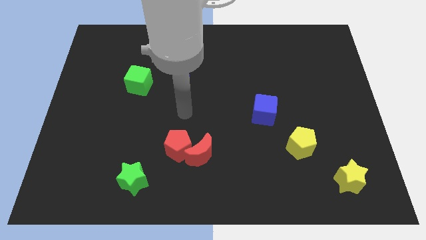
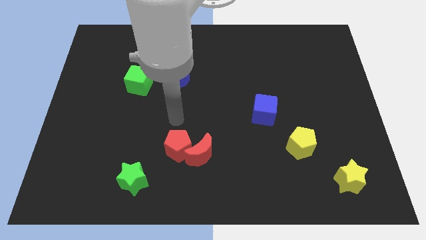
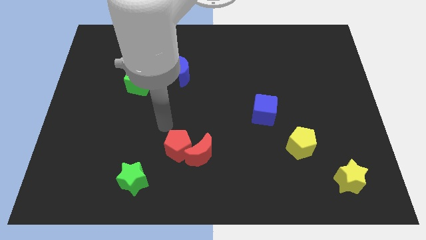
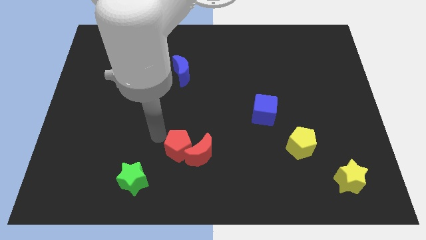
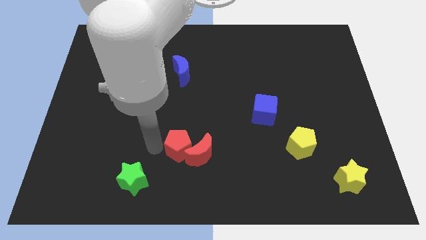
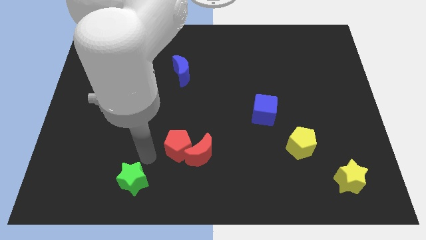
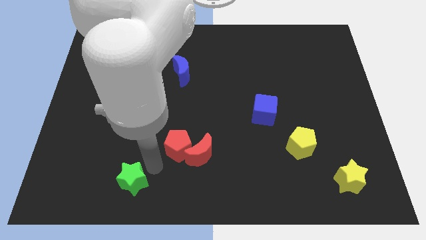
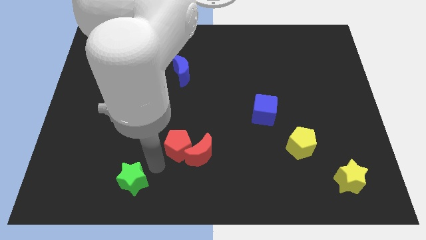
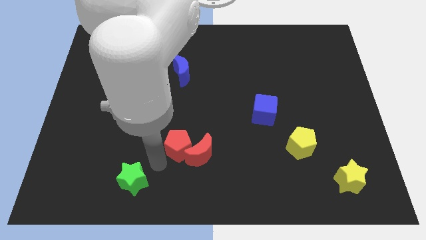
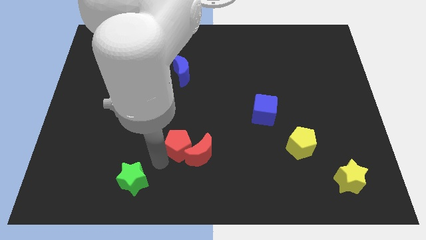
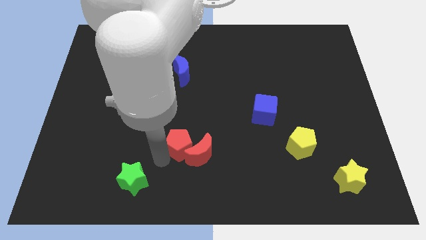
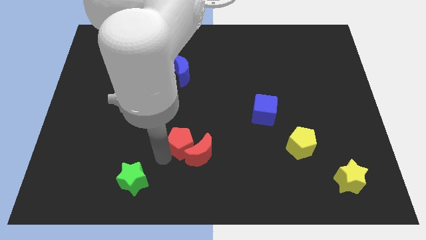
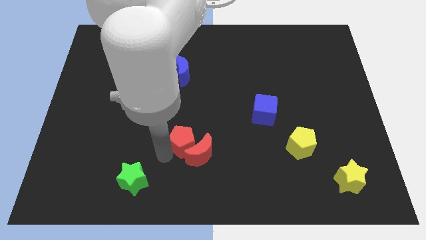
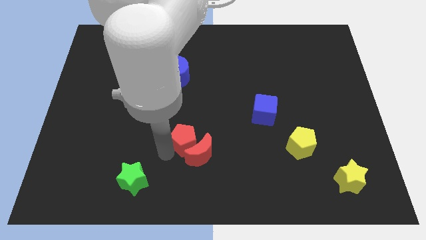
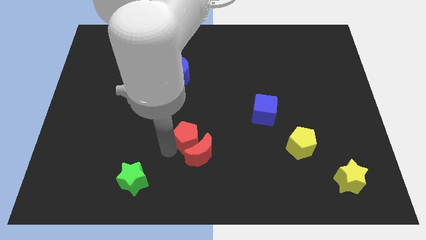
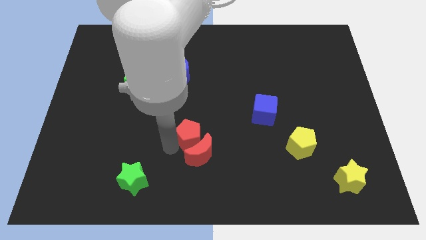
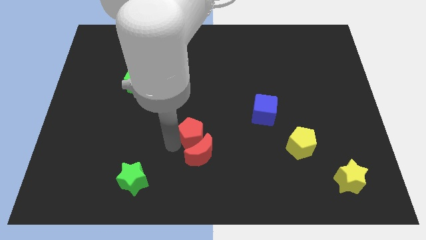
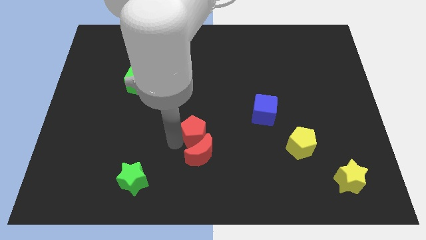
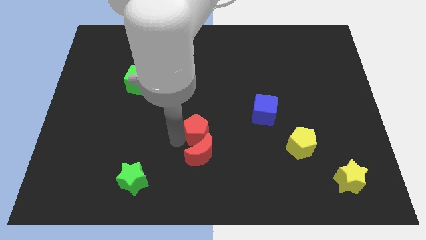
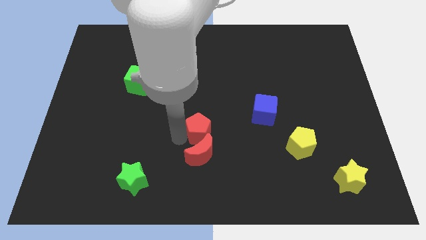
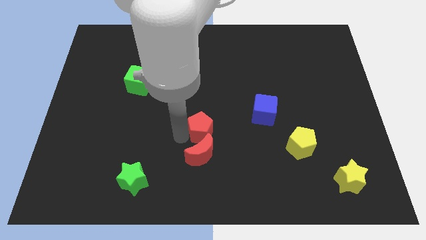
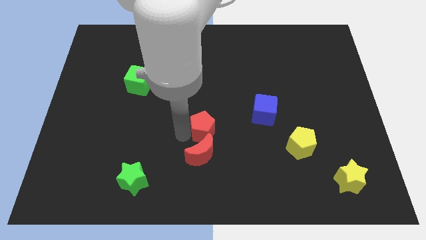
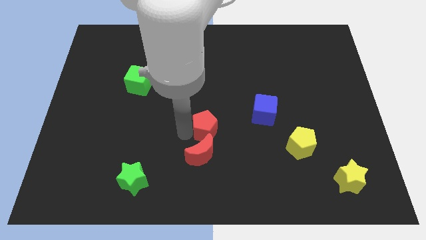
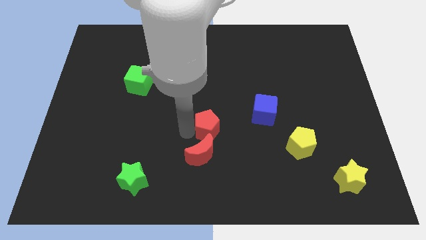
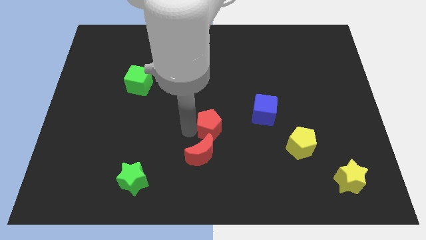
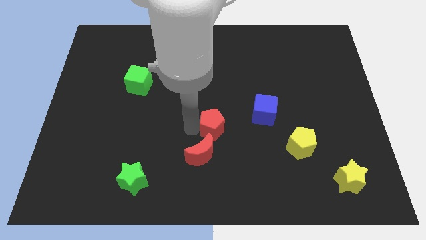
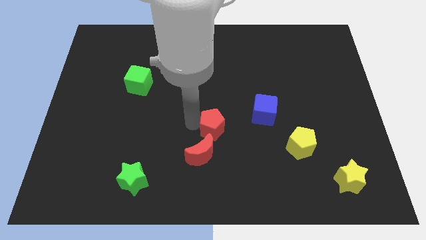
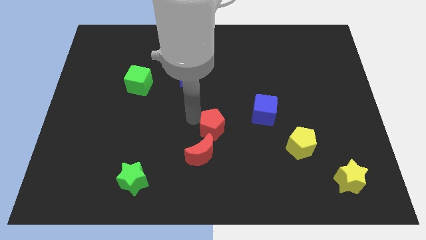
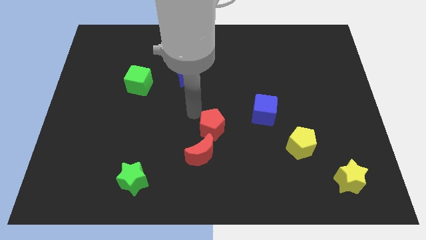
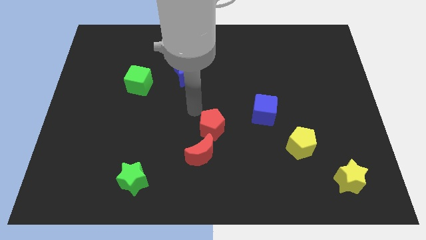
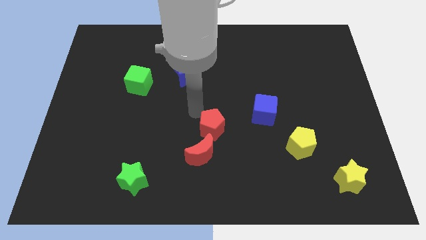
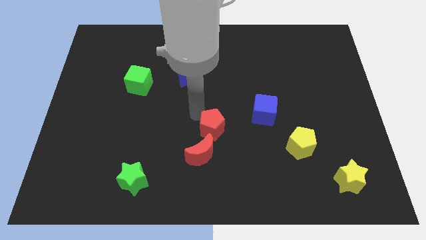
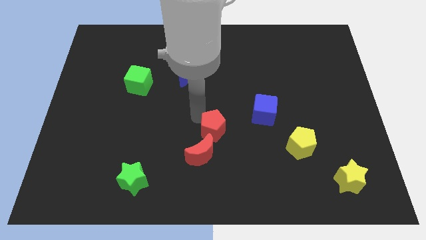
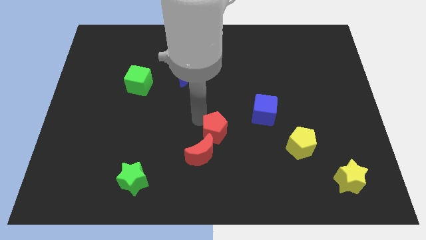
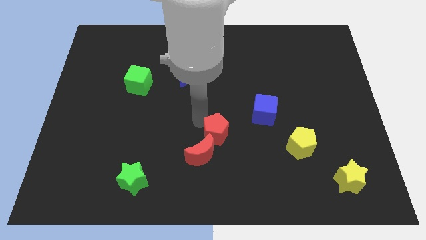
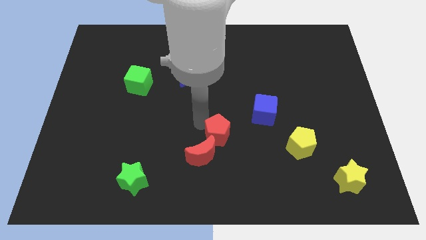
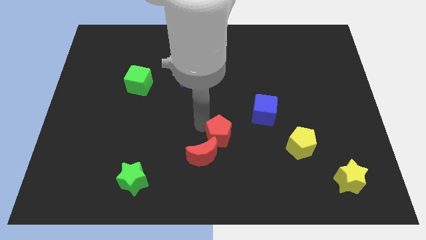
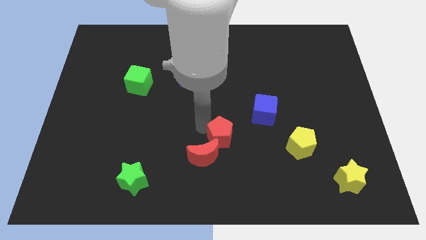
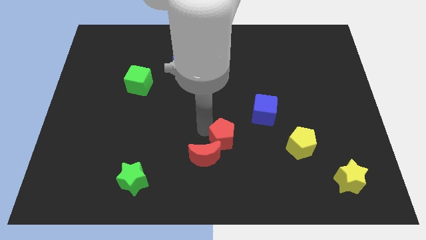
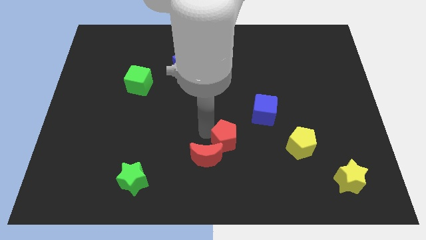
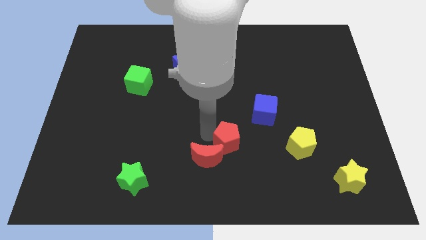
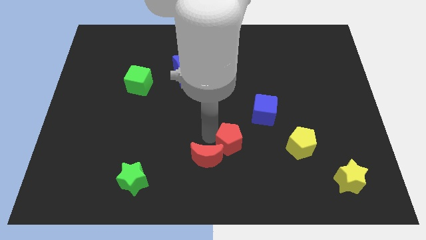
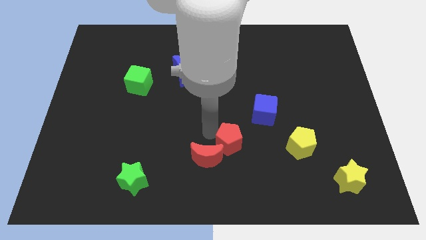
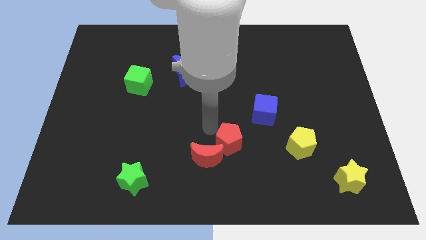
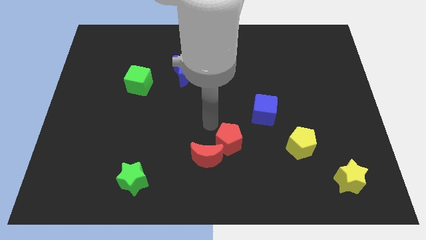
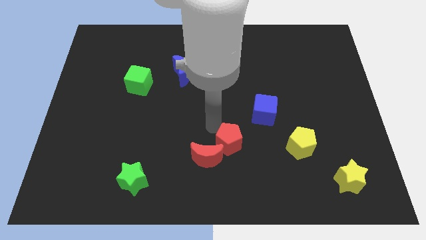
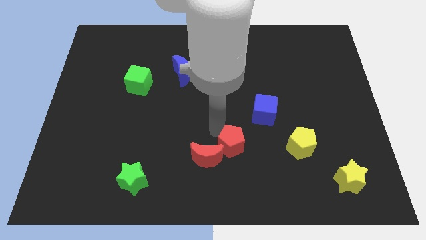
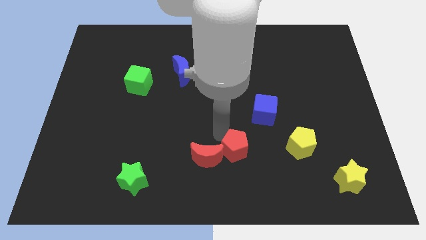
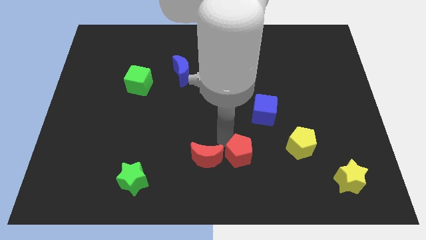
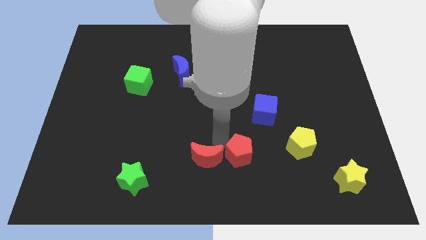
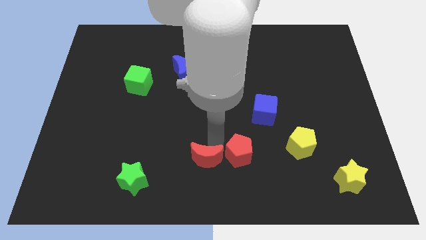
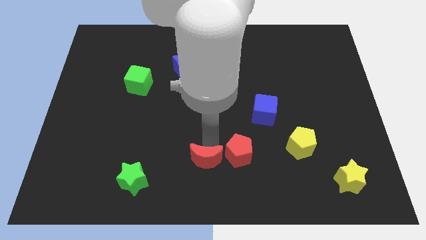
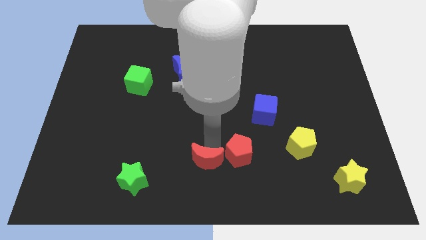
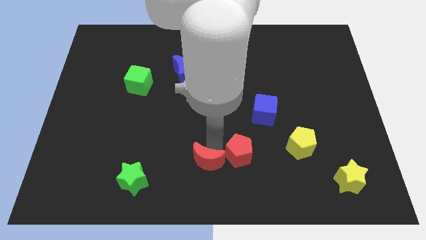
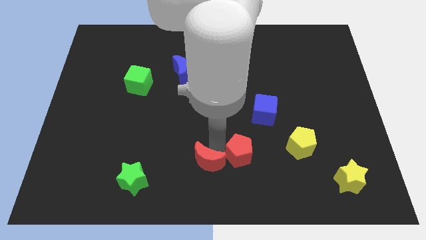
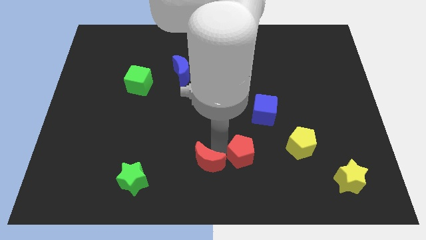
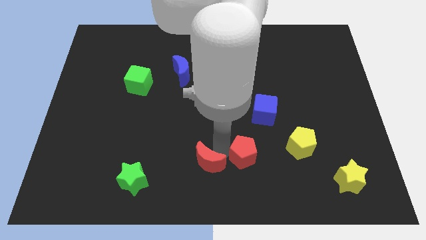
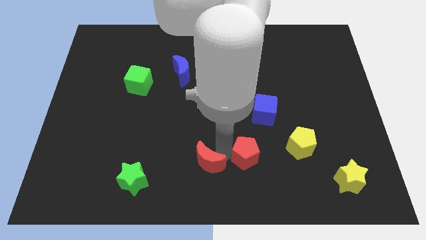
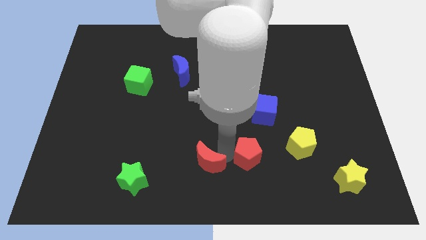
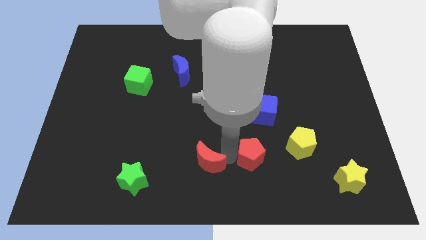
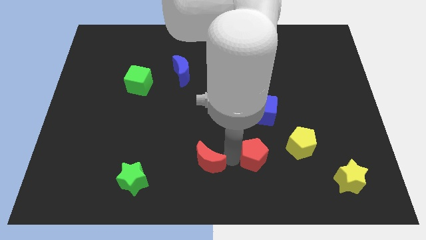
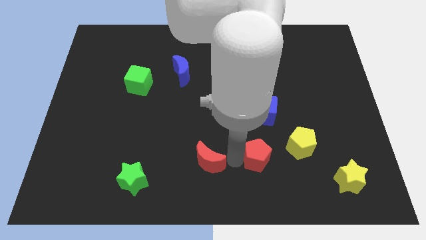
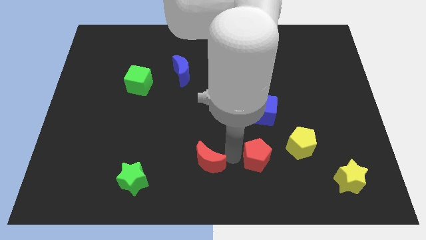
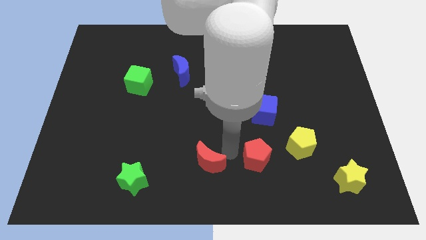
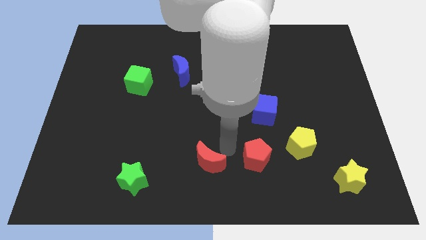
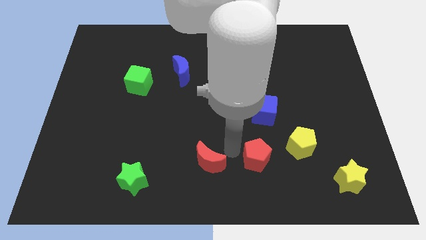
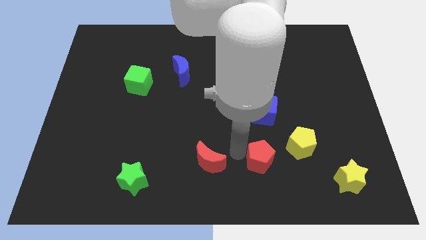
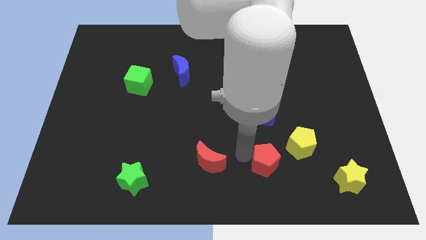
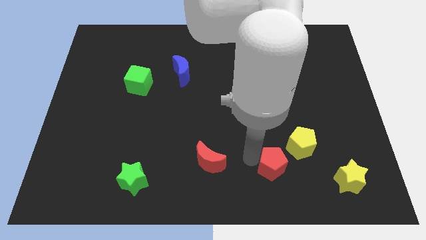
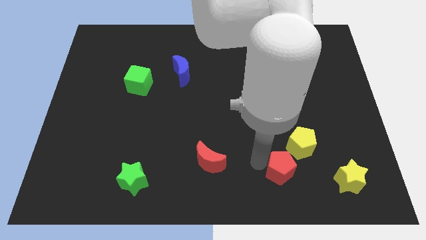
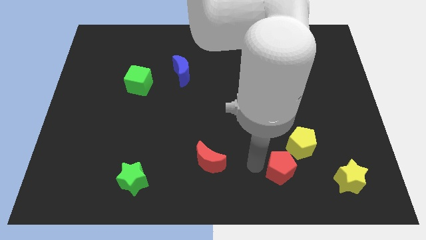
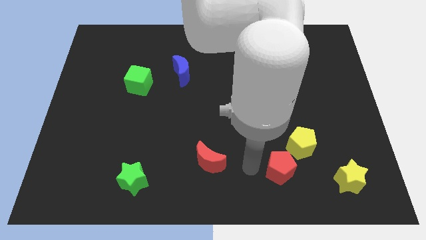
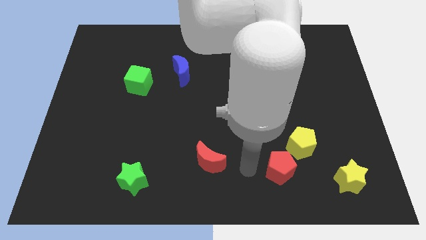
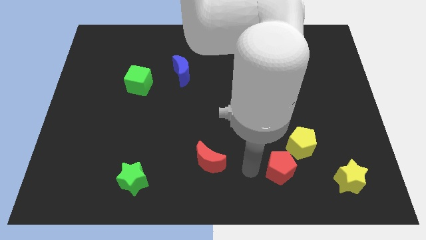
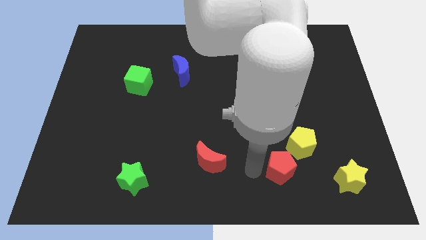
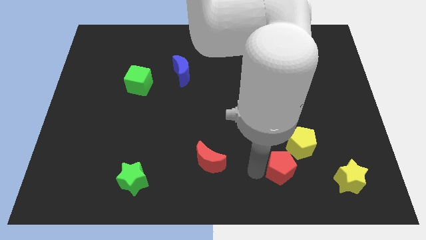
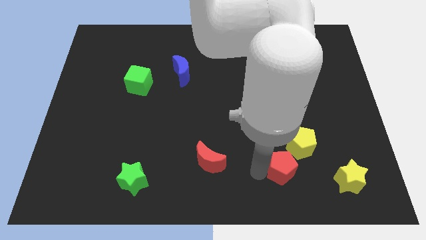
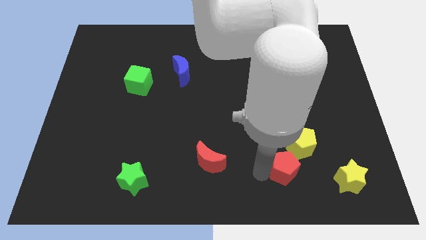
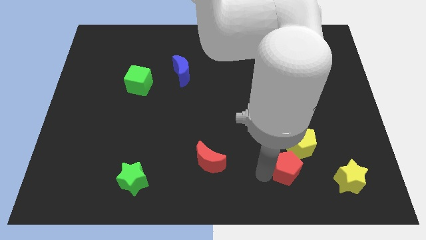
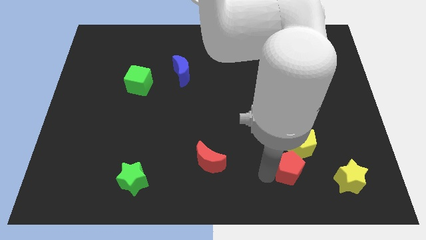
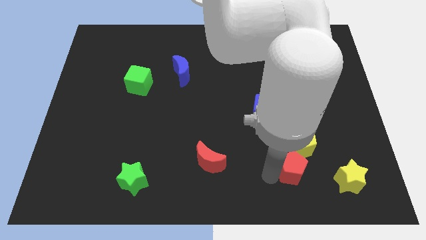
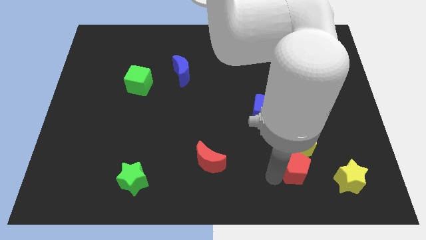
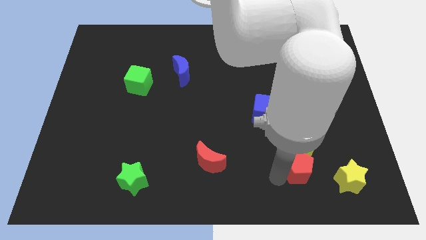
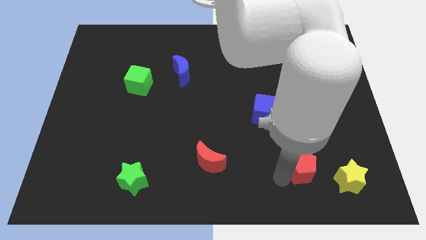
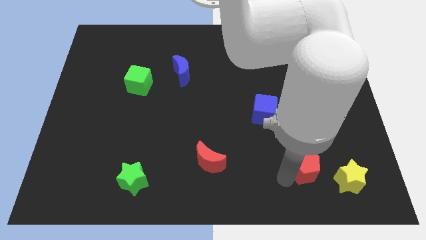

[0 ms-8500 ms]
push the red pentagon to the top left side of the yellow star
